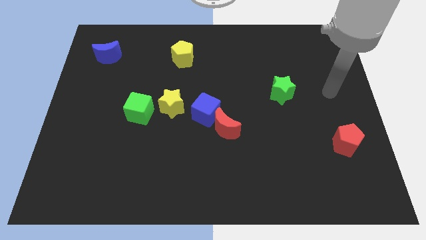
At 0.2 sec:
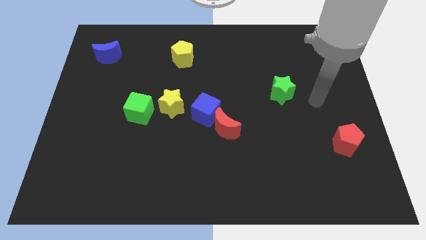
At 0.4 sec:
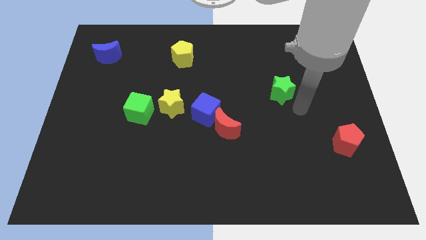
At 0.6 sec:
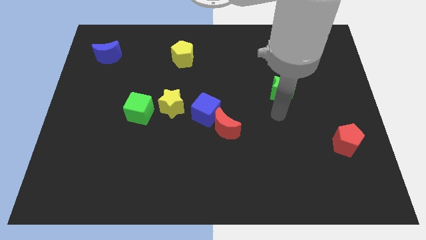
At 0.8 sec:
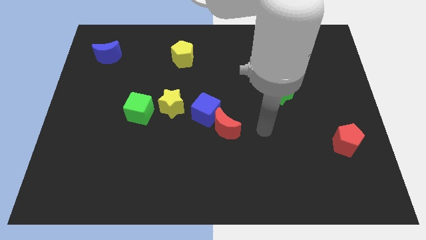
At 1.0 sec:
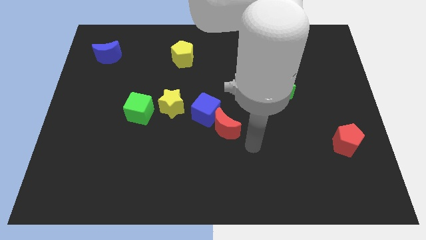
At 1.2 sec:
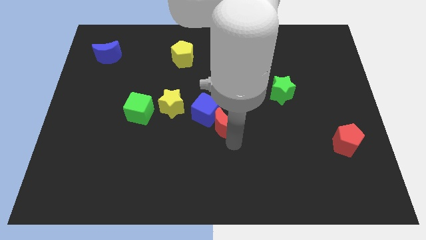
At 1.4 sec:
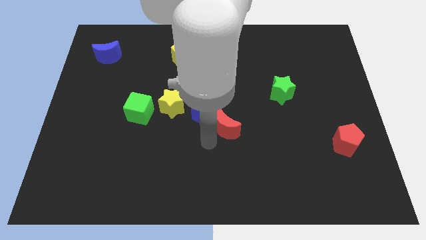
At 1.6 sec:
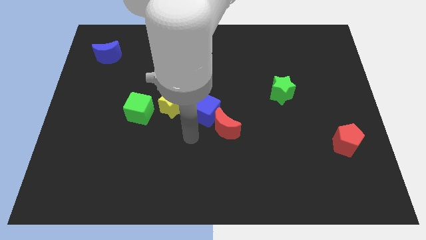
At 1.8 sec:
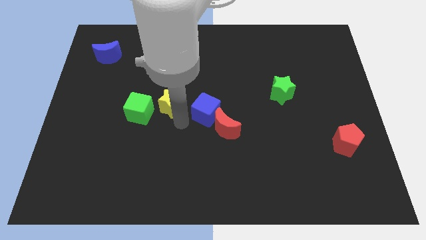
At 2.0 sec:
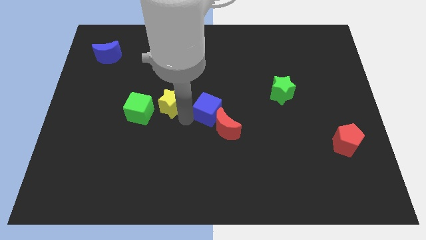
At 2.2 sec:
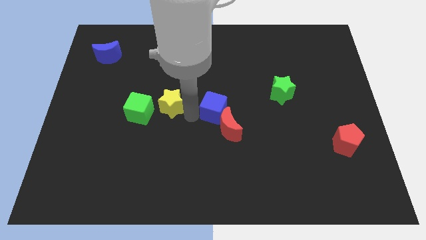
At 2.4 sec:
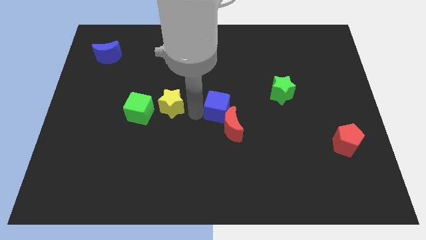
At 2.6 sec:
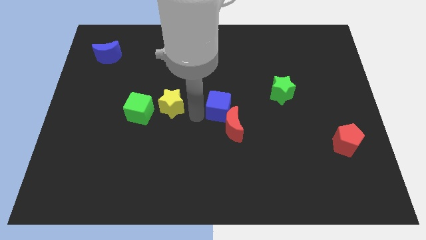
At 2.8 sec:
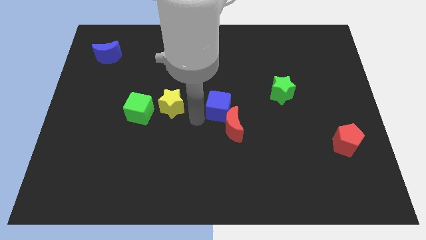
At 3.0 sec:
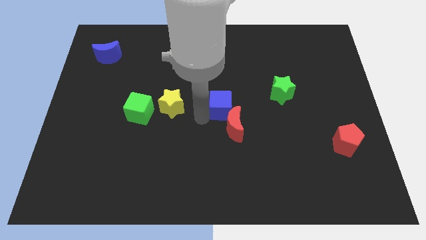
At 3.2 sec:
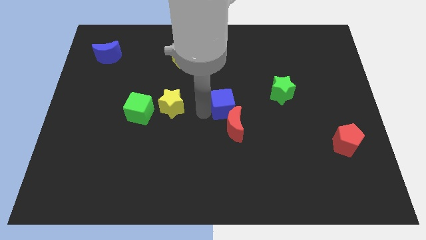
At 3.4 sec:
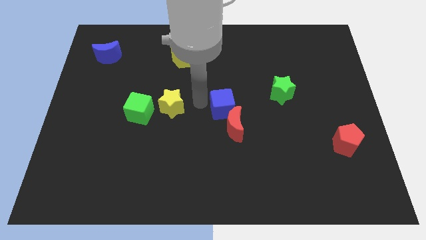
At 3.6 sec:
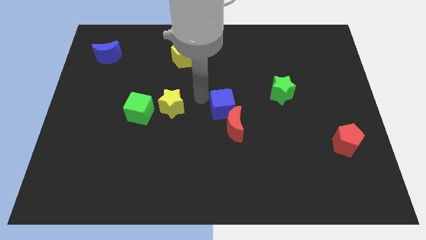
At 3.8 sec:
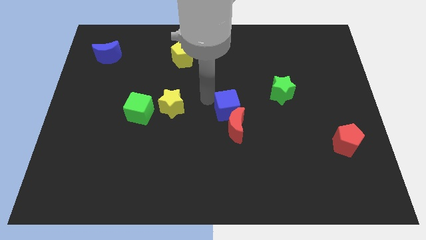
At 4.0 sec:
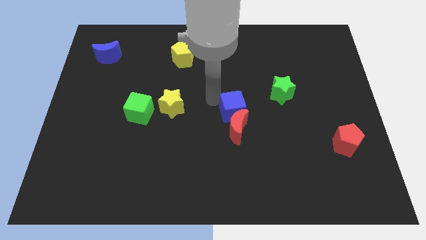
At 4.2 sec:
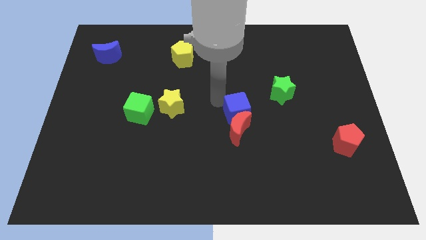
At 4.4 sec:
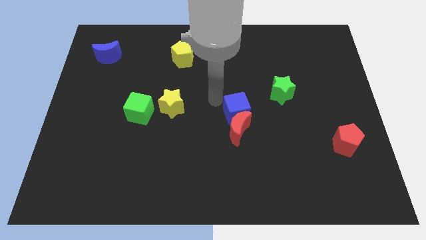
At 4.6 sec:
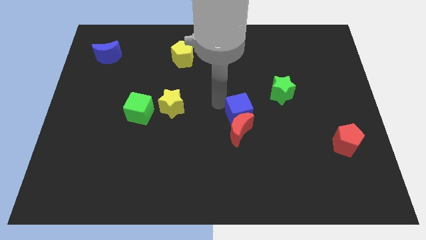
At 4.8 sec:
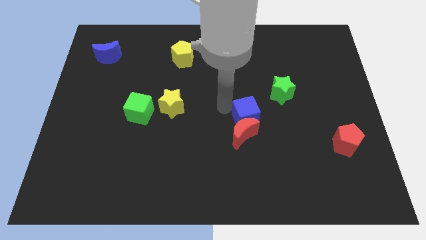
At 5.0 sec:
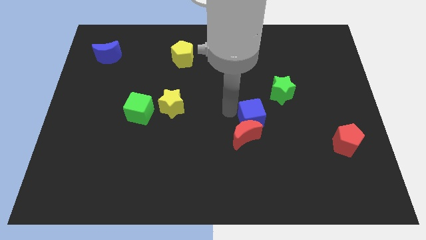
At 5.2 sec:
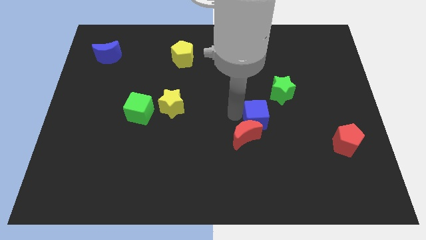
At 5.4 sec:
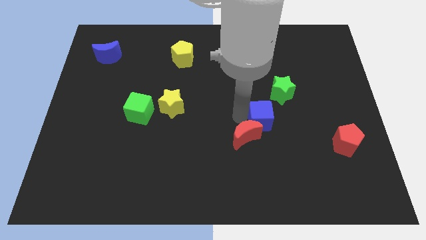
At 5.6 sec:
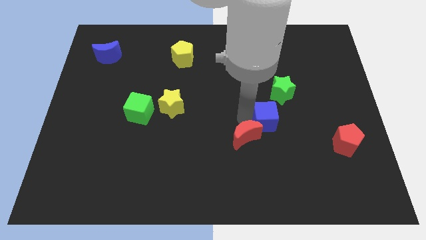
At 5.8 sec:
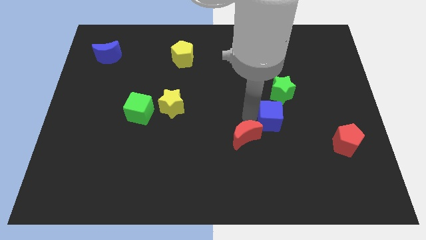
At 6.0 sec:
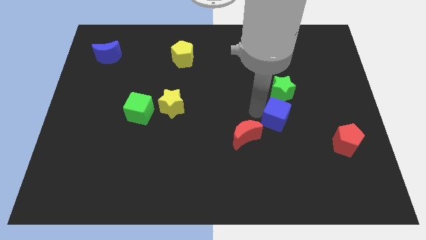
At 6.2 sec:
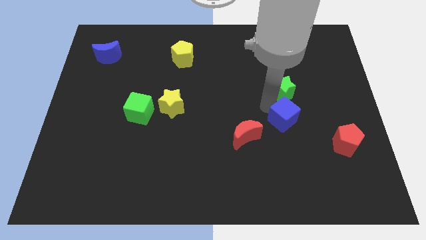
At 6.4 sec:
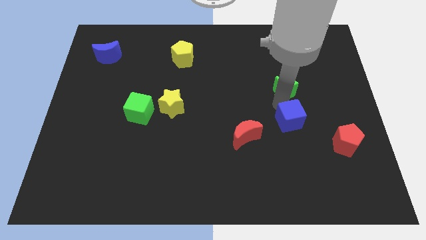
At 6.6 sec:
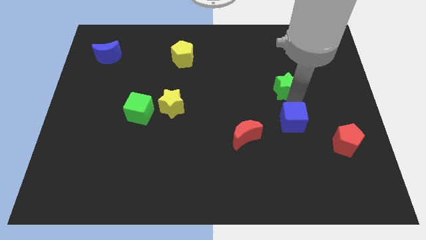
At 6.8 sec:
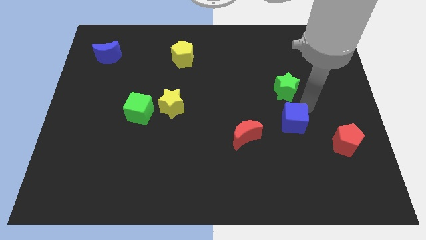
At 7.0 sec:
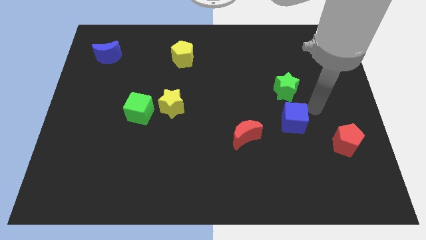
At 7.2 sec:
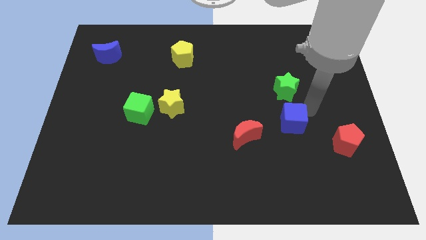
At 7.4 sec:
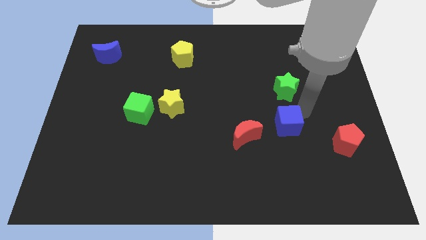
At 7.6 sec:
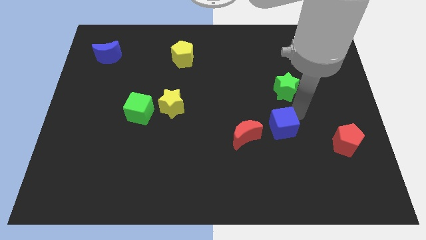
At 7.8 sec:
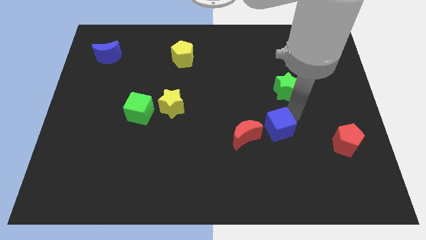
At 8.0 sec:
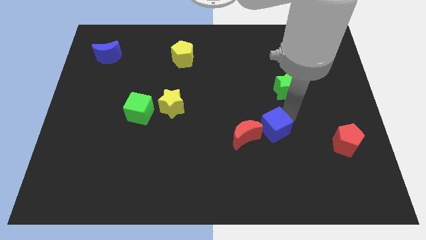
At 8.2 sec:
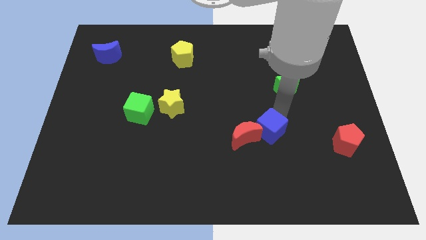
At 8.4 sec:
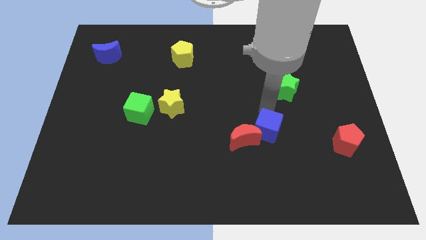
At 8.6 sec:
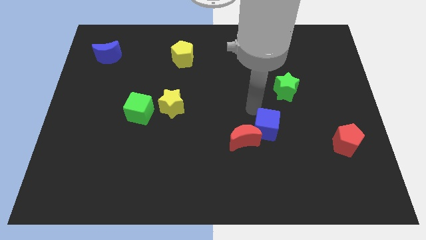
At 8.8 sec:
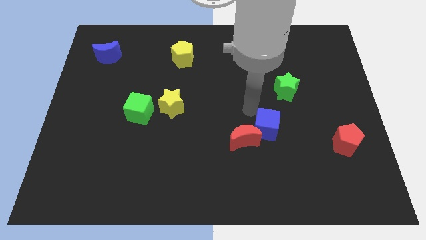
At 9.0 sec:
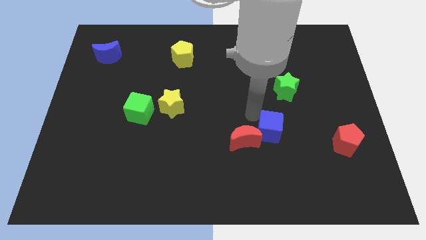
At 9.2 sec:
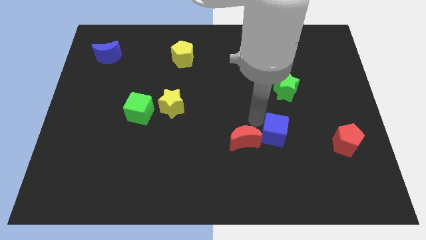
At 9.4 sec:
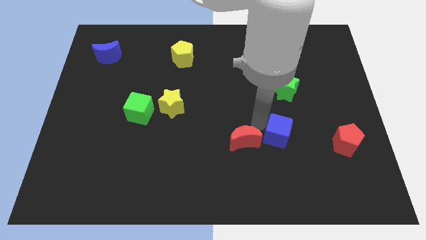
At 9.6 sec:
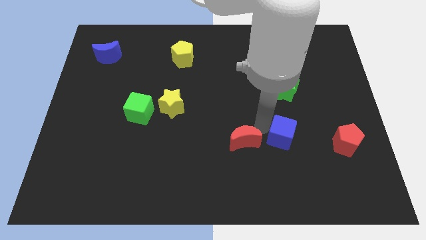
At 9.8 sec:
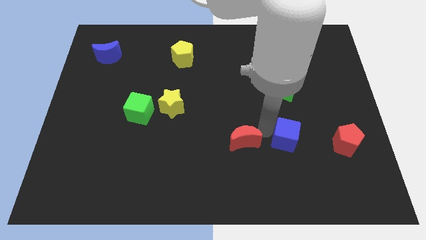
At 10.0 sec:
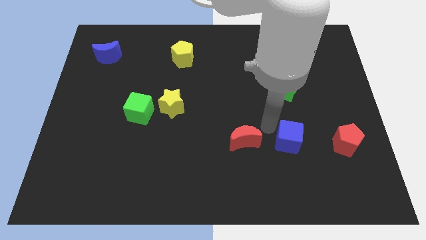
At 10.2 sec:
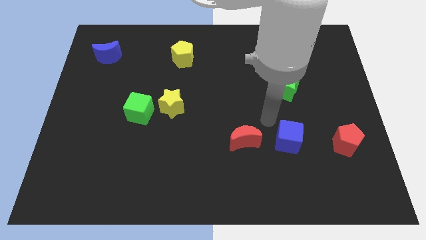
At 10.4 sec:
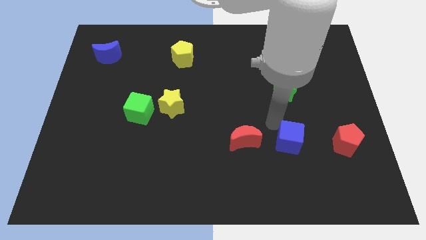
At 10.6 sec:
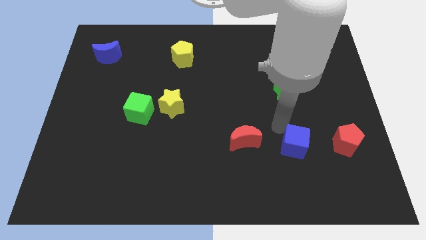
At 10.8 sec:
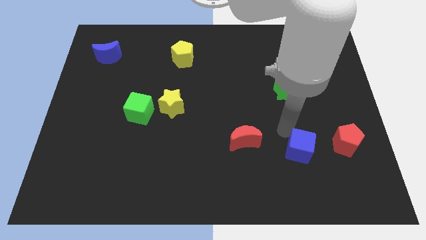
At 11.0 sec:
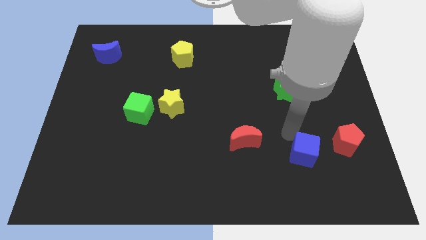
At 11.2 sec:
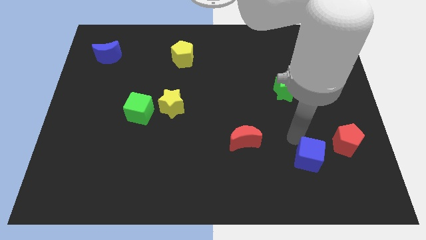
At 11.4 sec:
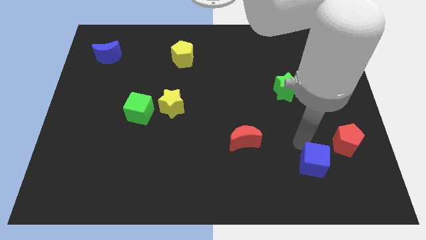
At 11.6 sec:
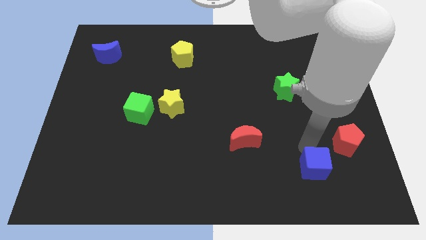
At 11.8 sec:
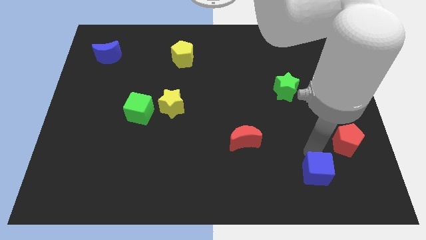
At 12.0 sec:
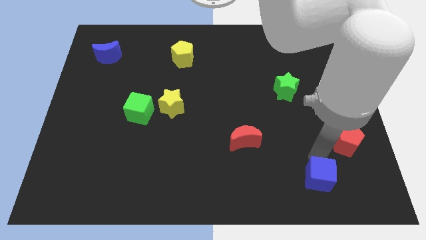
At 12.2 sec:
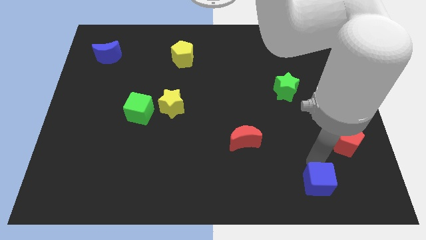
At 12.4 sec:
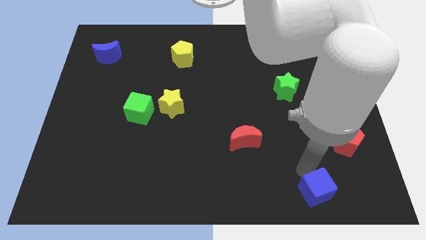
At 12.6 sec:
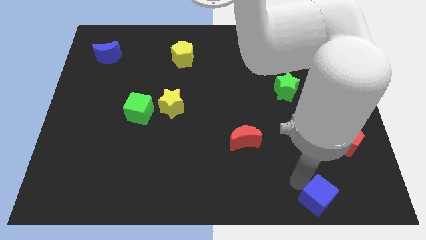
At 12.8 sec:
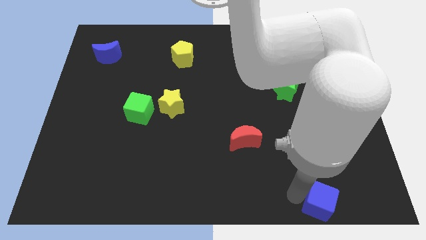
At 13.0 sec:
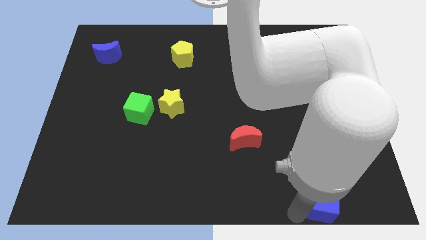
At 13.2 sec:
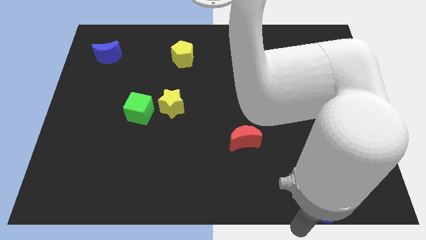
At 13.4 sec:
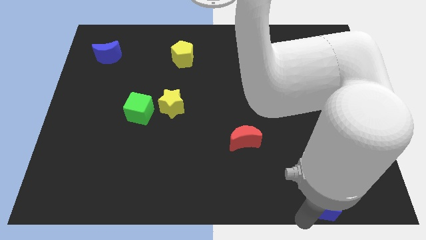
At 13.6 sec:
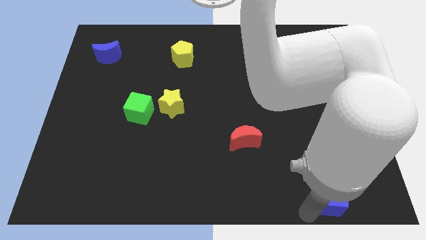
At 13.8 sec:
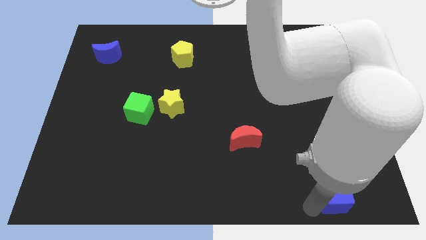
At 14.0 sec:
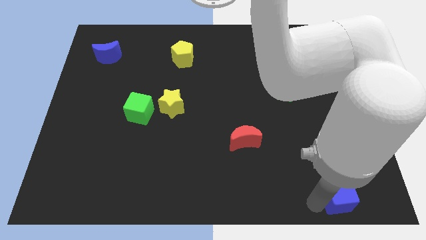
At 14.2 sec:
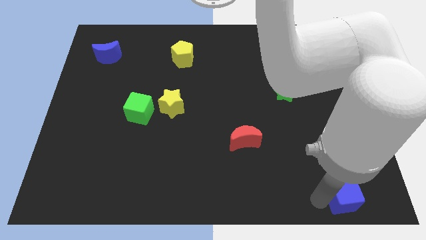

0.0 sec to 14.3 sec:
put the blue cube to the bottom right corner
